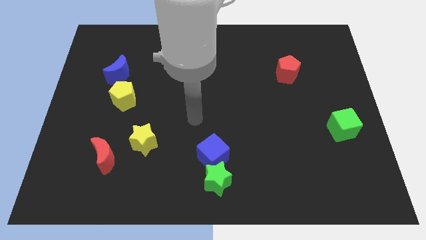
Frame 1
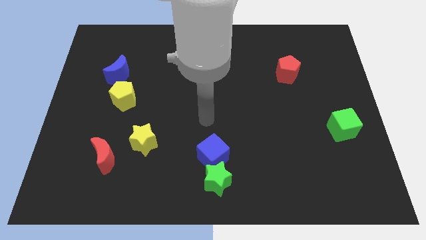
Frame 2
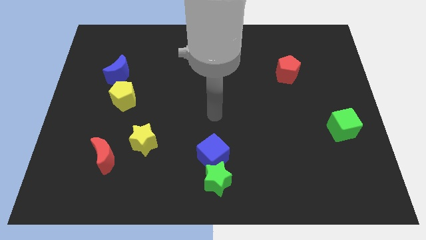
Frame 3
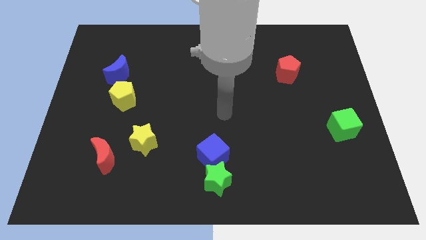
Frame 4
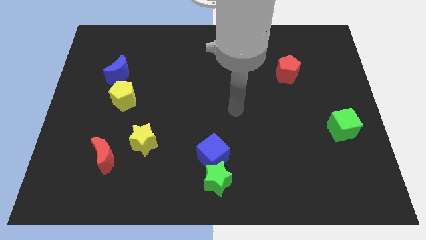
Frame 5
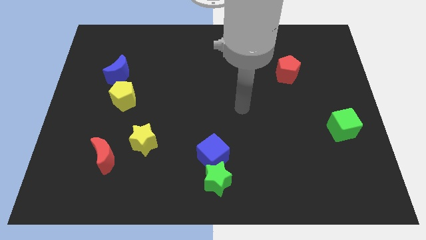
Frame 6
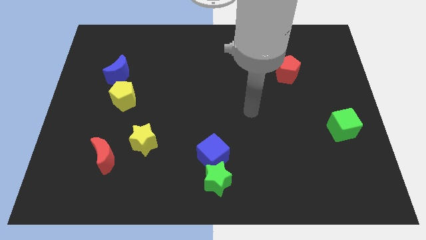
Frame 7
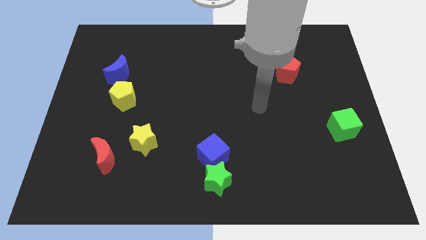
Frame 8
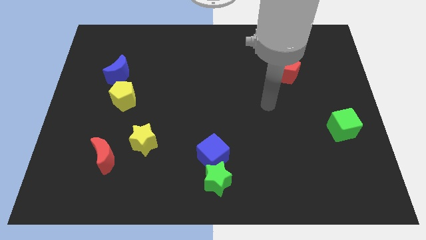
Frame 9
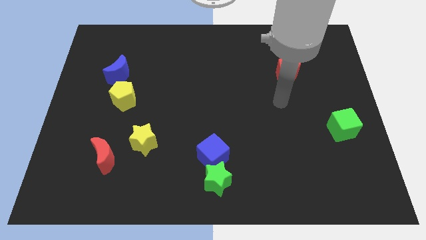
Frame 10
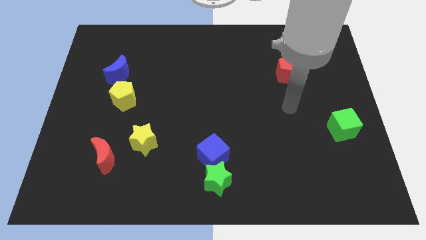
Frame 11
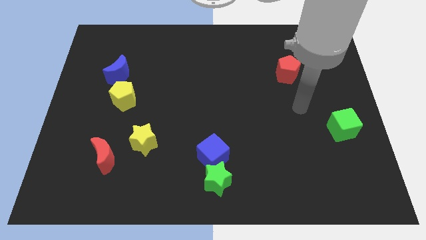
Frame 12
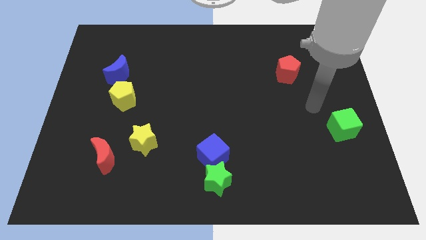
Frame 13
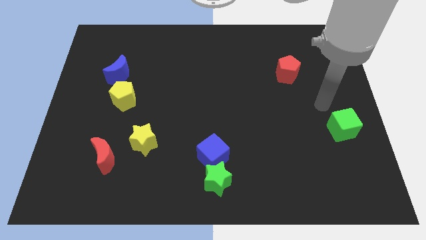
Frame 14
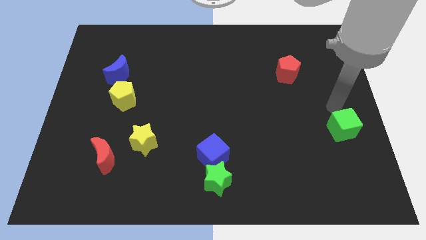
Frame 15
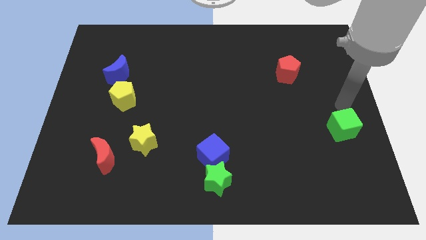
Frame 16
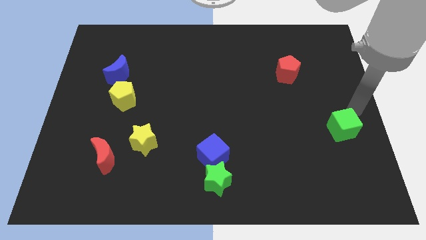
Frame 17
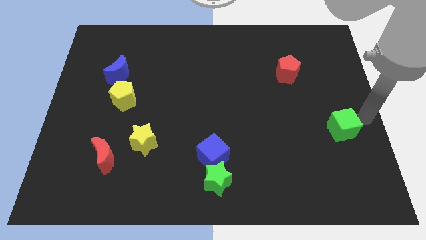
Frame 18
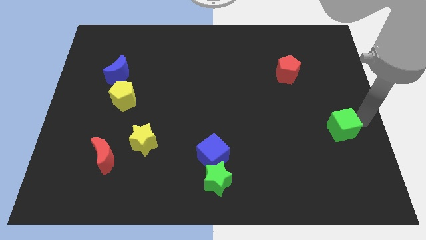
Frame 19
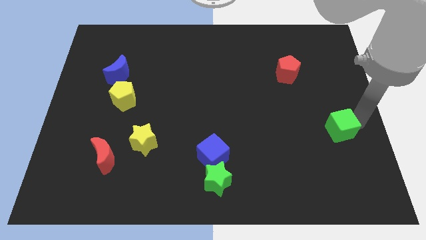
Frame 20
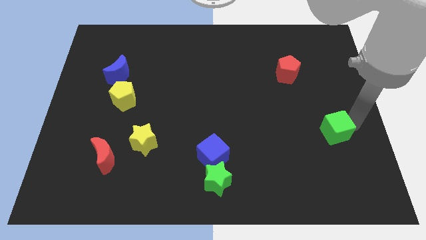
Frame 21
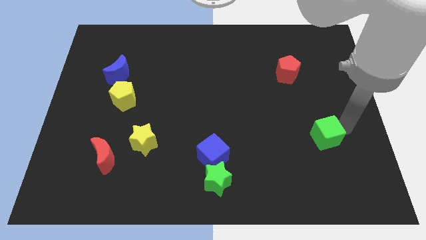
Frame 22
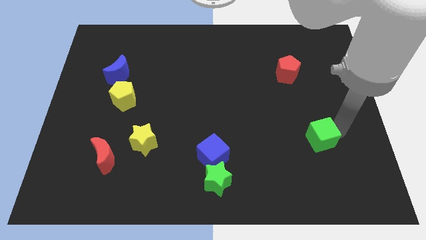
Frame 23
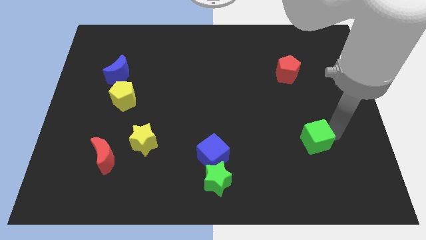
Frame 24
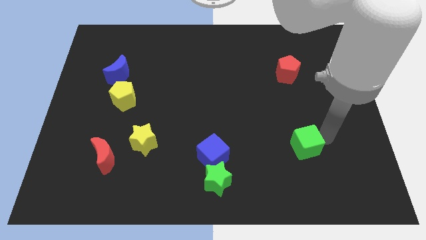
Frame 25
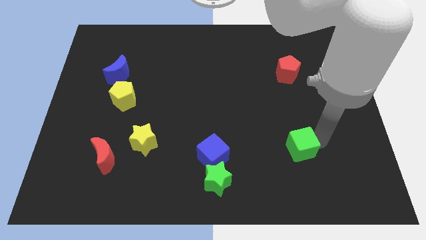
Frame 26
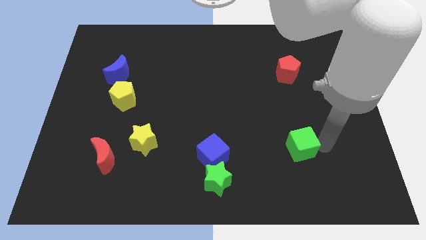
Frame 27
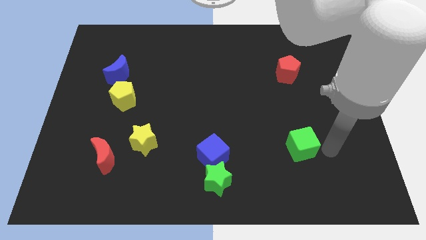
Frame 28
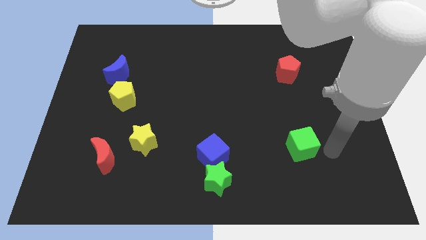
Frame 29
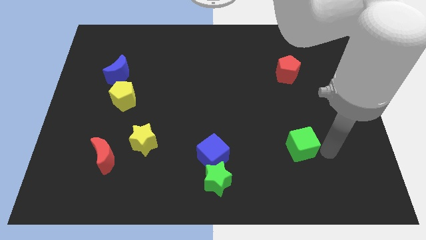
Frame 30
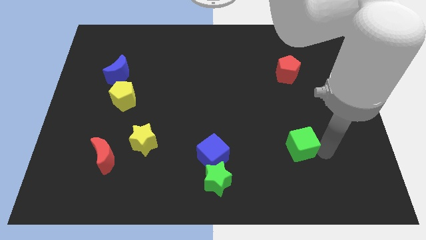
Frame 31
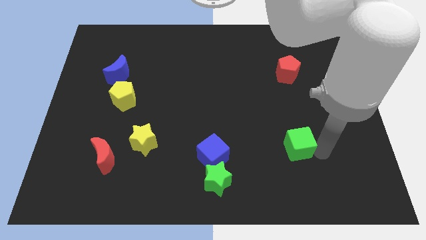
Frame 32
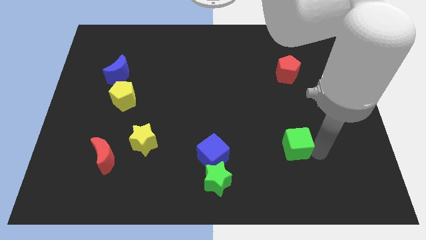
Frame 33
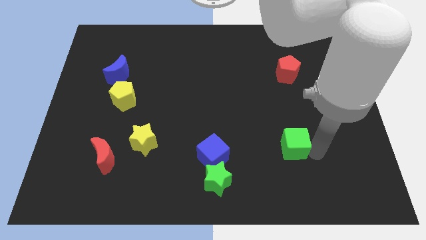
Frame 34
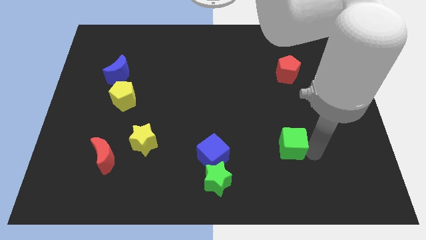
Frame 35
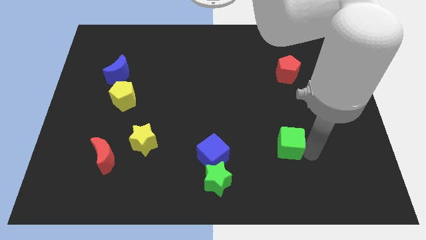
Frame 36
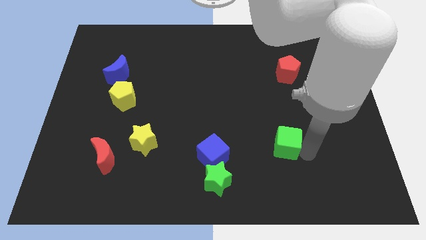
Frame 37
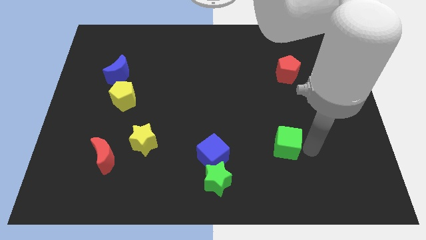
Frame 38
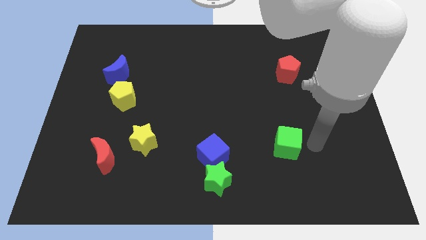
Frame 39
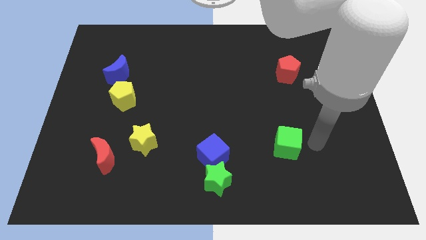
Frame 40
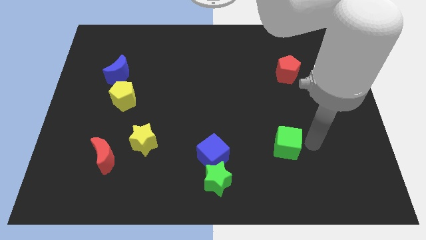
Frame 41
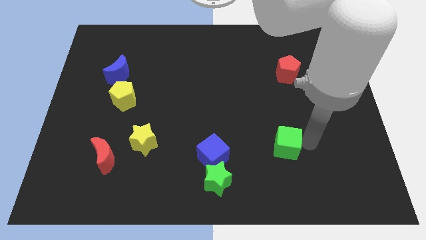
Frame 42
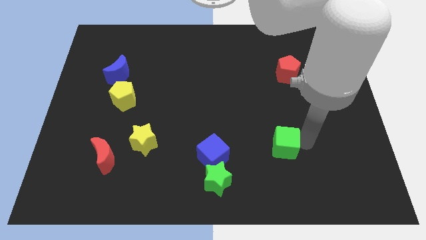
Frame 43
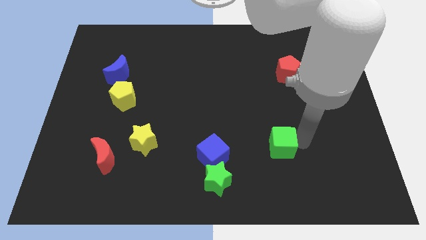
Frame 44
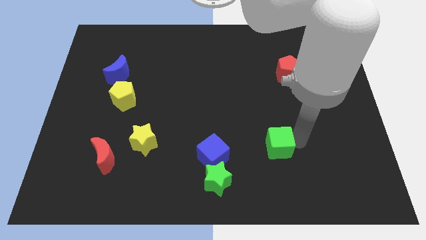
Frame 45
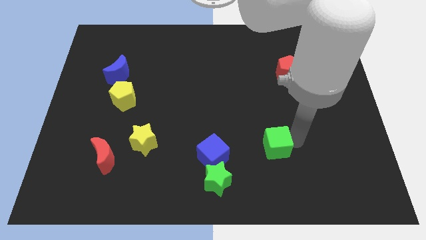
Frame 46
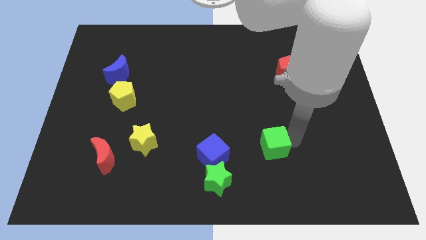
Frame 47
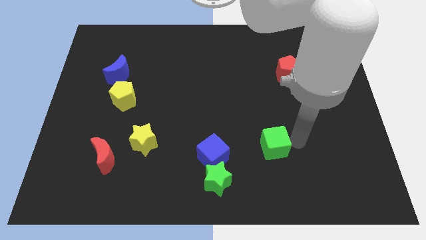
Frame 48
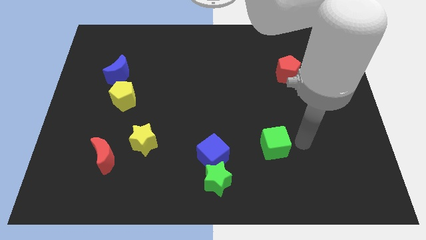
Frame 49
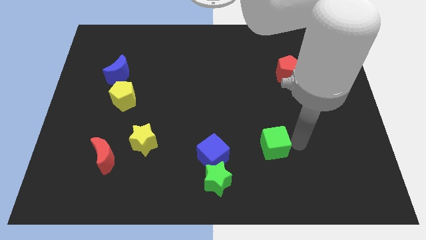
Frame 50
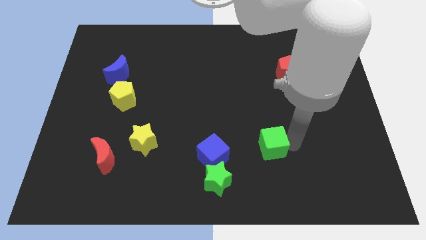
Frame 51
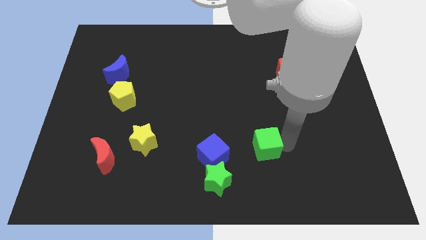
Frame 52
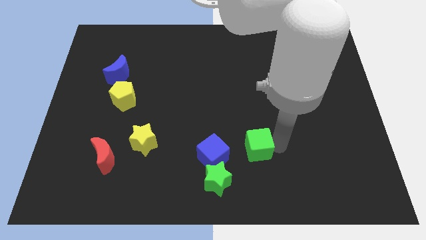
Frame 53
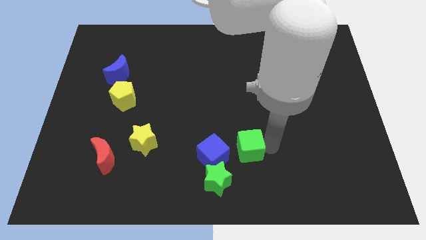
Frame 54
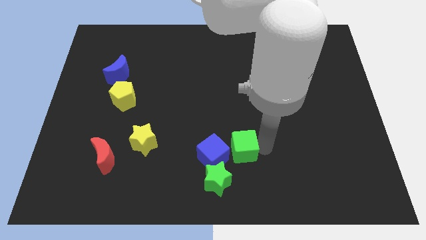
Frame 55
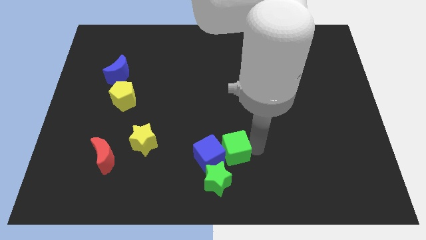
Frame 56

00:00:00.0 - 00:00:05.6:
put the green cube close to the blue cube

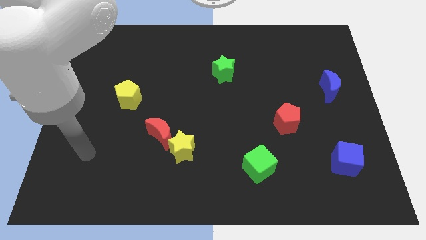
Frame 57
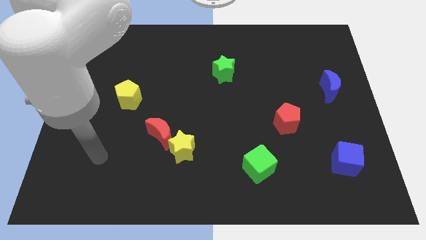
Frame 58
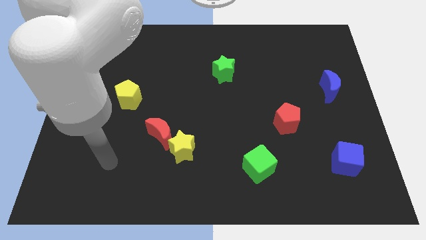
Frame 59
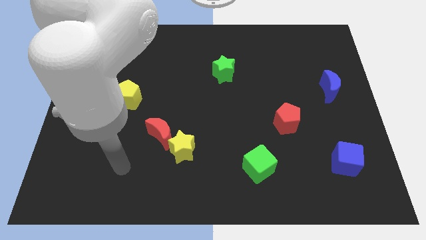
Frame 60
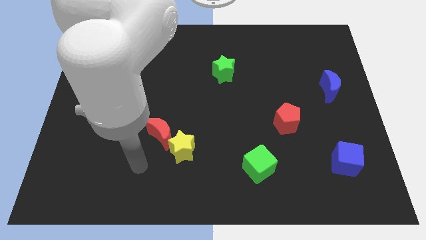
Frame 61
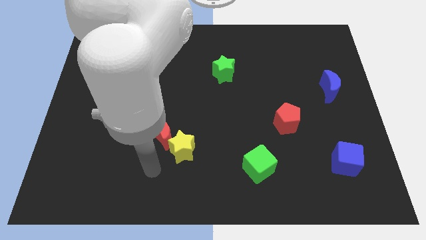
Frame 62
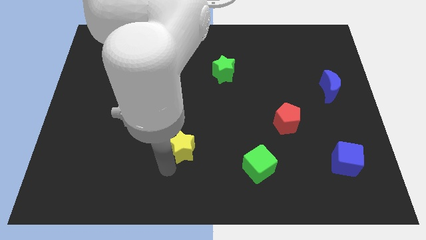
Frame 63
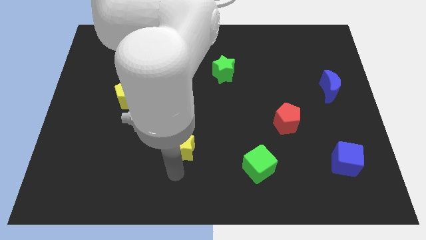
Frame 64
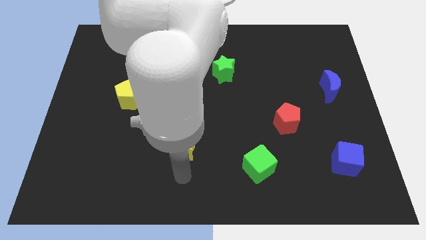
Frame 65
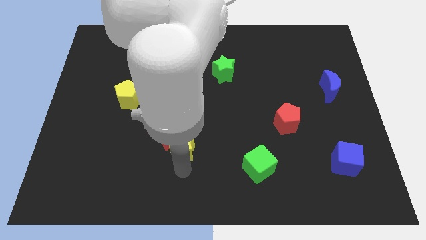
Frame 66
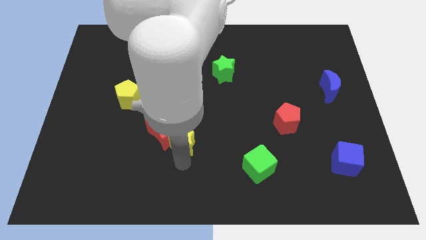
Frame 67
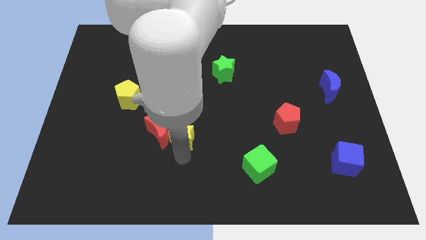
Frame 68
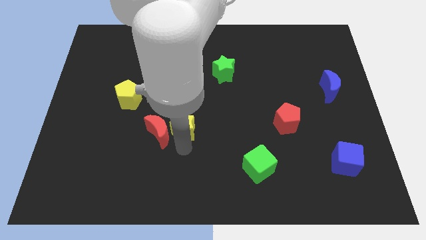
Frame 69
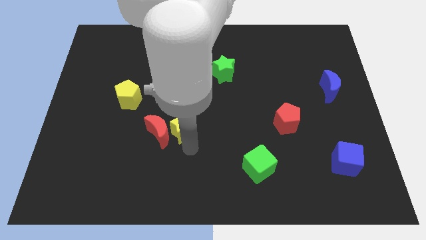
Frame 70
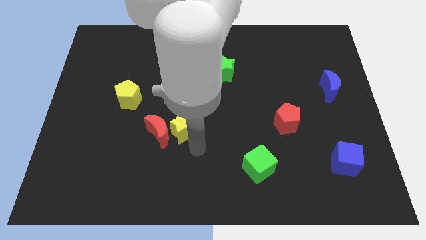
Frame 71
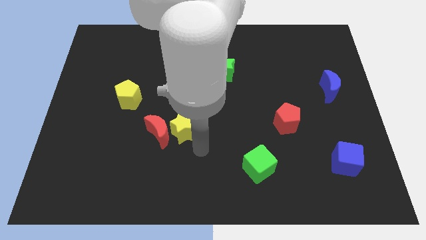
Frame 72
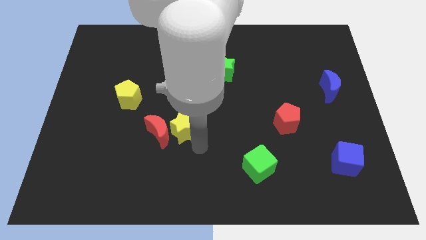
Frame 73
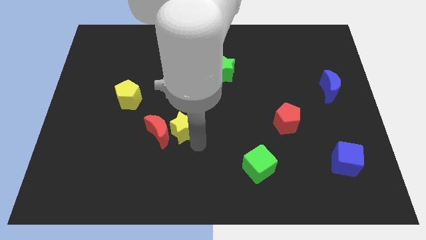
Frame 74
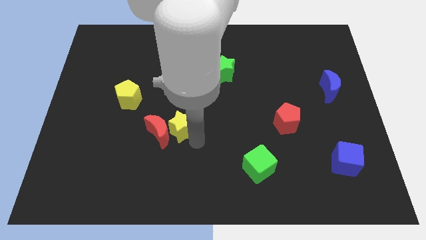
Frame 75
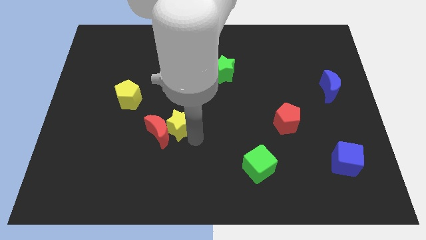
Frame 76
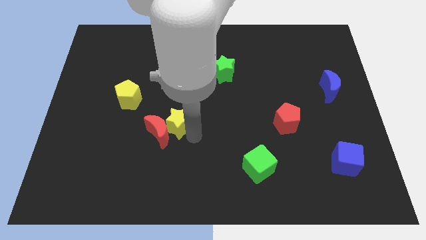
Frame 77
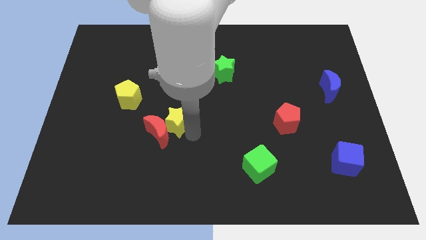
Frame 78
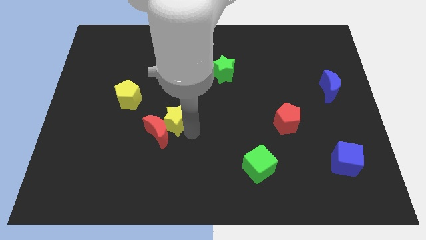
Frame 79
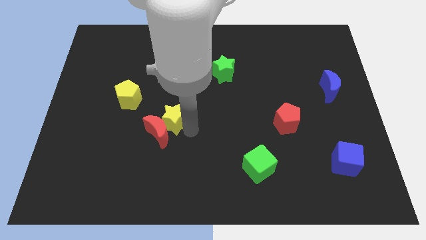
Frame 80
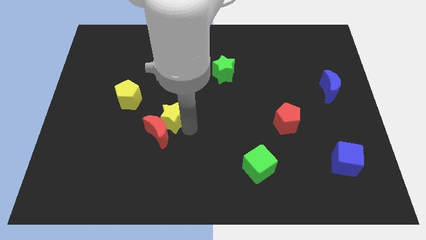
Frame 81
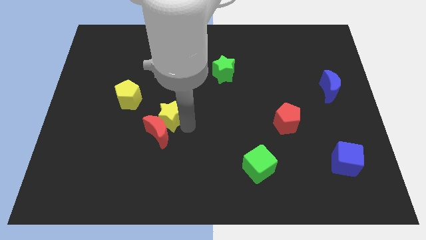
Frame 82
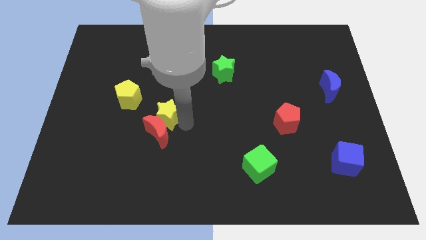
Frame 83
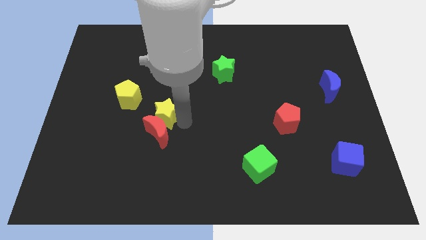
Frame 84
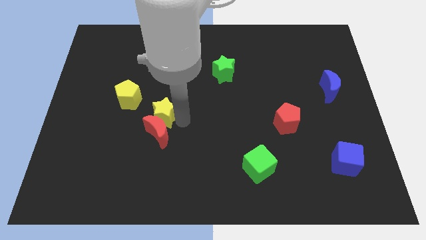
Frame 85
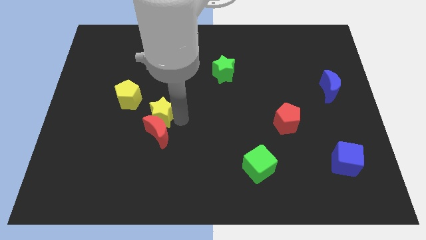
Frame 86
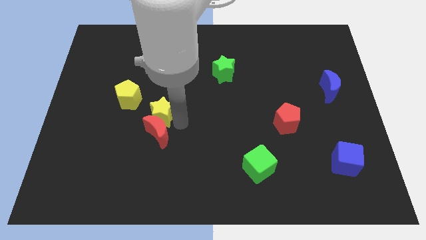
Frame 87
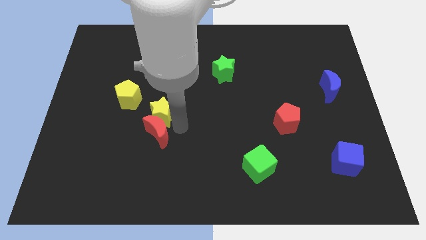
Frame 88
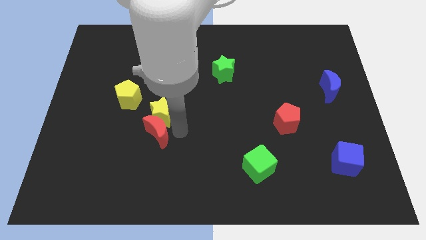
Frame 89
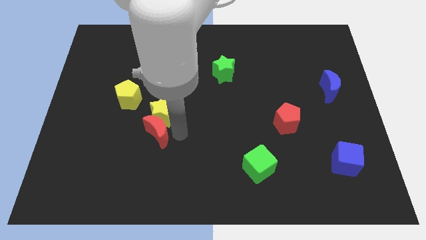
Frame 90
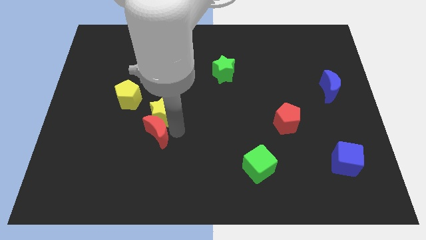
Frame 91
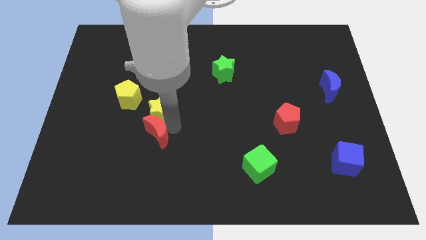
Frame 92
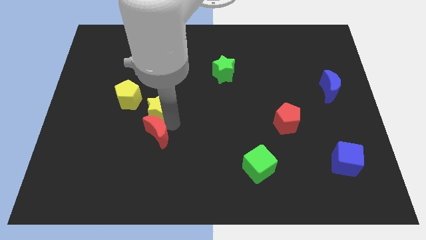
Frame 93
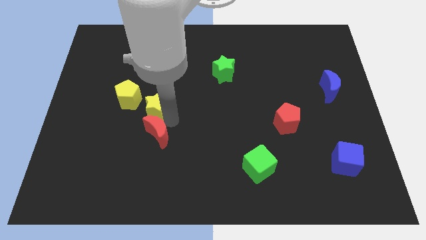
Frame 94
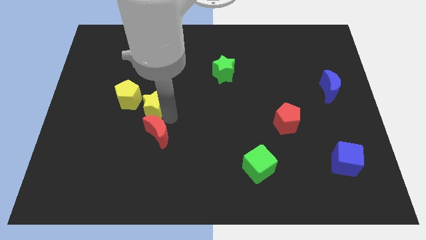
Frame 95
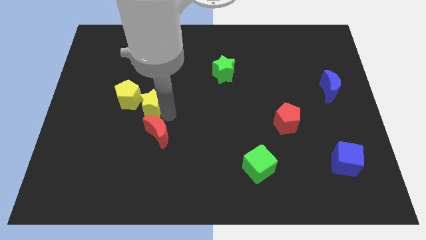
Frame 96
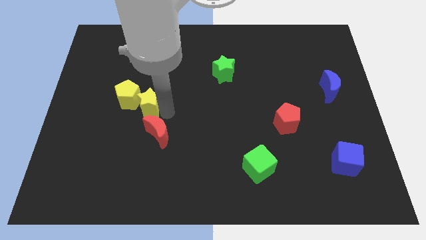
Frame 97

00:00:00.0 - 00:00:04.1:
move the yellow star close to the yellow pentagon
